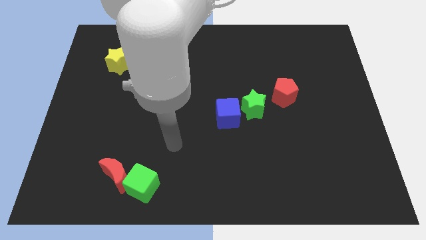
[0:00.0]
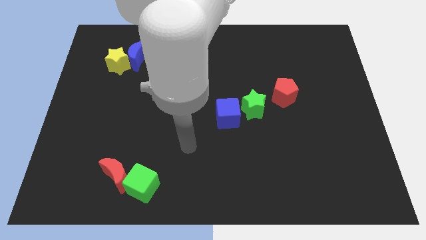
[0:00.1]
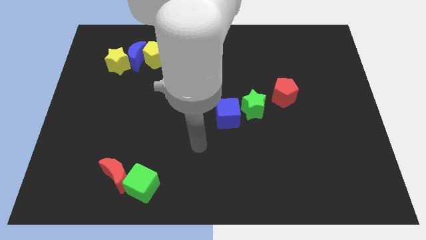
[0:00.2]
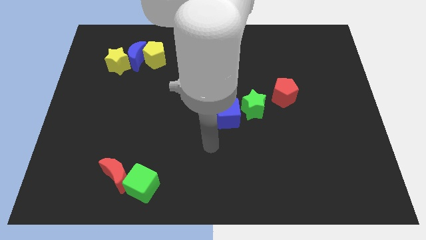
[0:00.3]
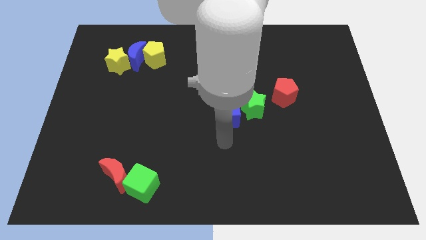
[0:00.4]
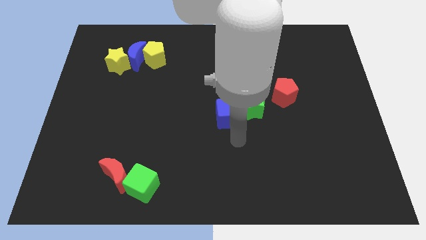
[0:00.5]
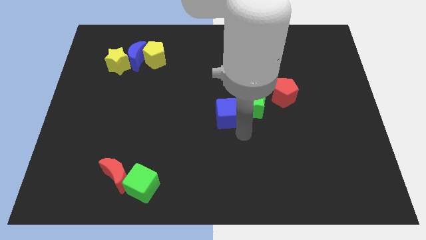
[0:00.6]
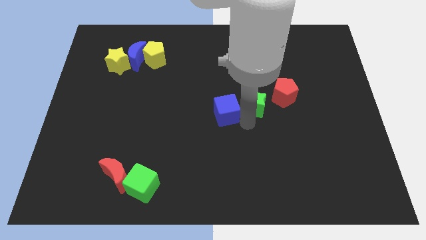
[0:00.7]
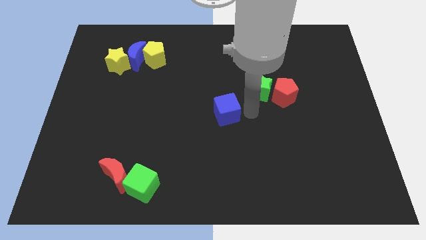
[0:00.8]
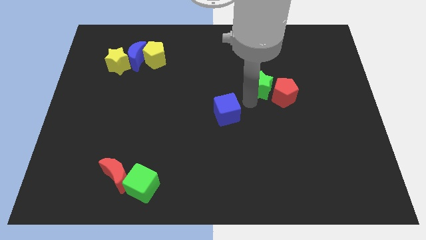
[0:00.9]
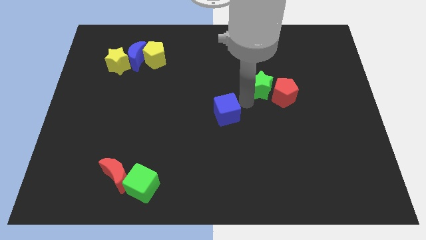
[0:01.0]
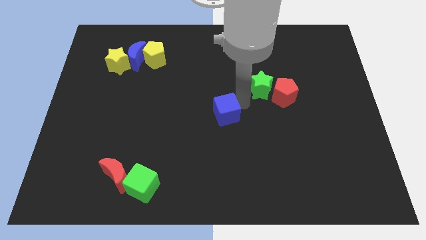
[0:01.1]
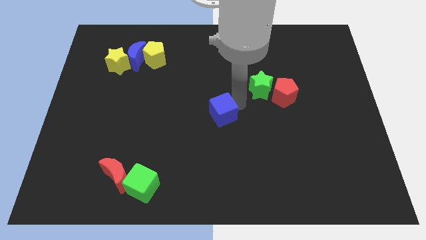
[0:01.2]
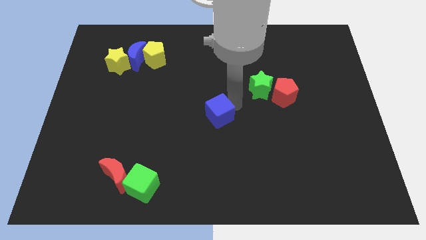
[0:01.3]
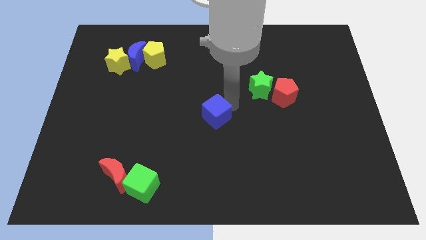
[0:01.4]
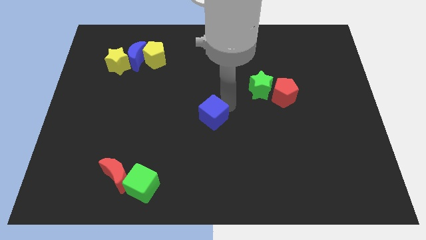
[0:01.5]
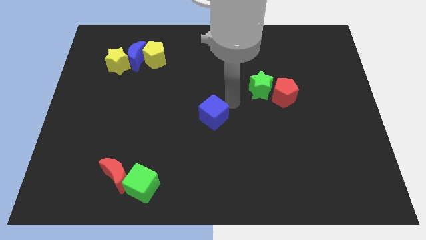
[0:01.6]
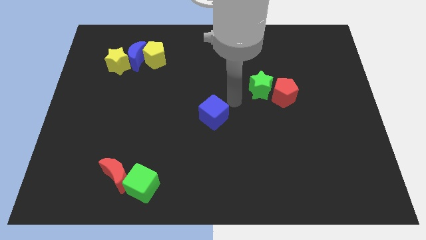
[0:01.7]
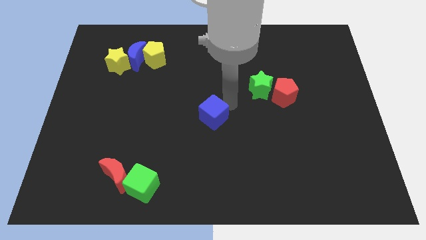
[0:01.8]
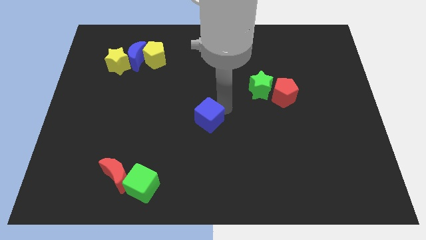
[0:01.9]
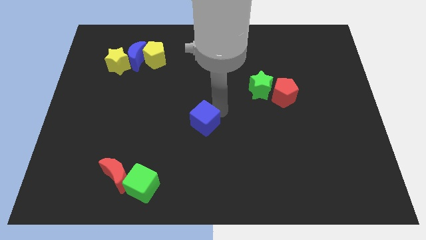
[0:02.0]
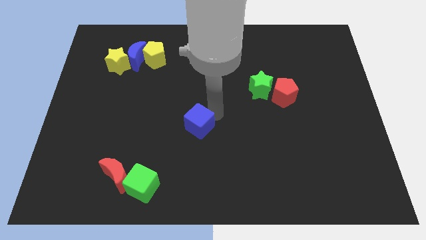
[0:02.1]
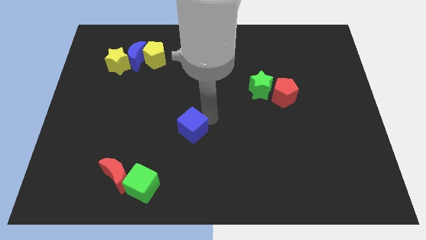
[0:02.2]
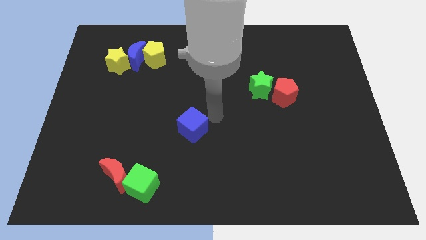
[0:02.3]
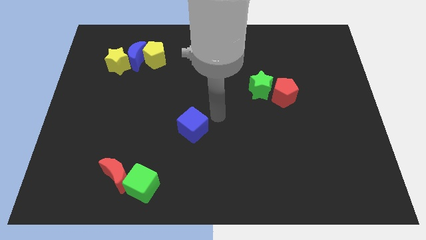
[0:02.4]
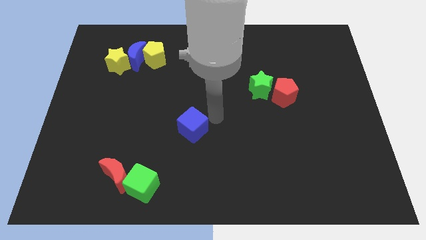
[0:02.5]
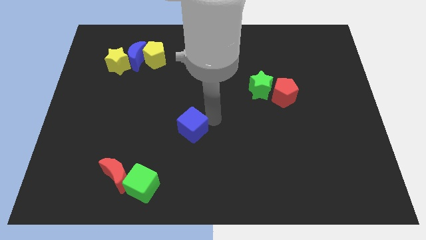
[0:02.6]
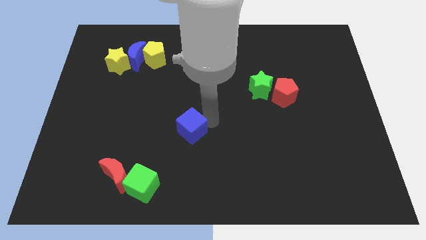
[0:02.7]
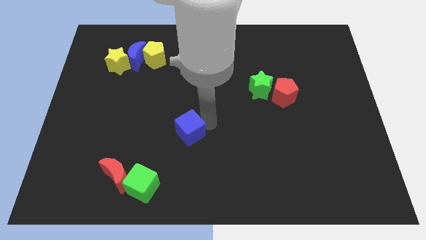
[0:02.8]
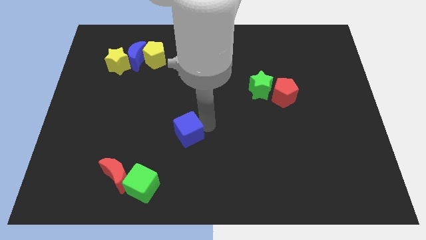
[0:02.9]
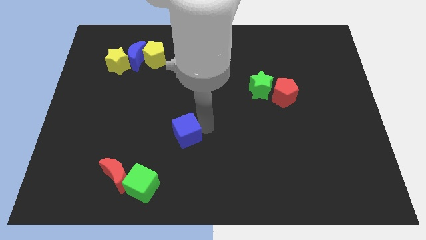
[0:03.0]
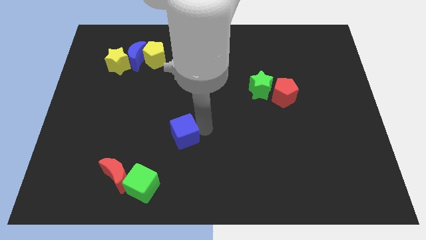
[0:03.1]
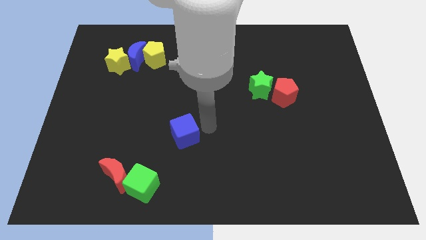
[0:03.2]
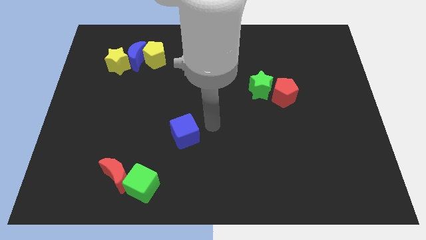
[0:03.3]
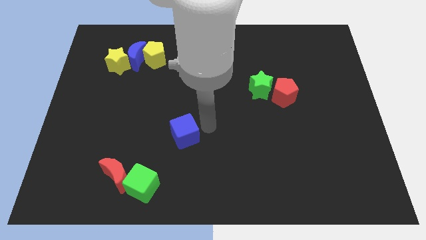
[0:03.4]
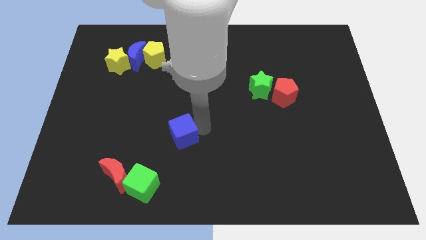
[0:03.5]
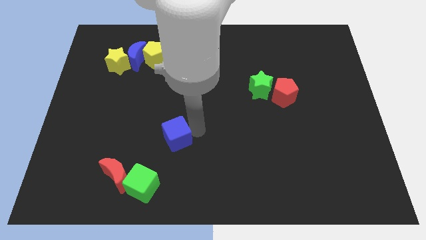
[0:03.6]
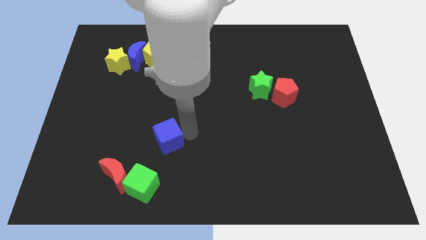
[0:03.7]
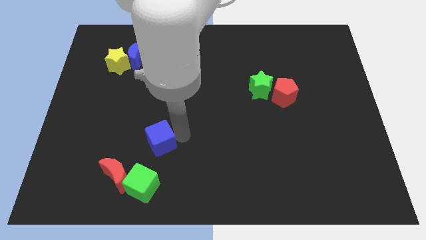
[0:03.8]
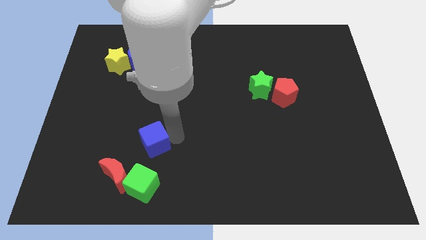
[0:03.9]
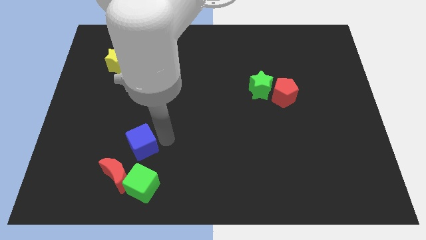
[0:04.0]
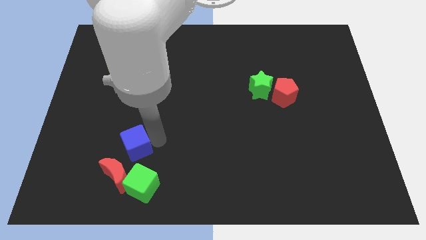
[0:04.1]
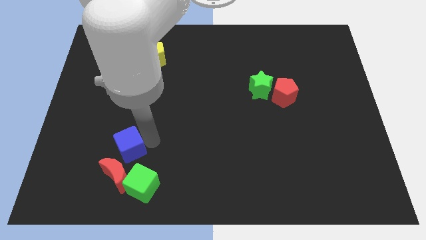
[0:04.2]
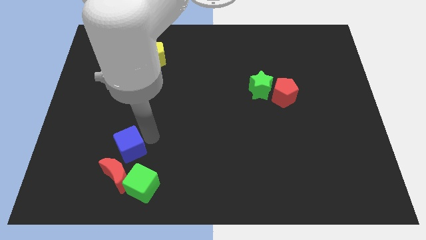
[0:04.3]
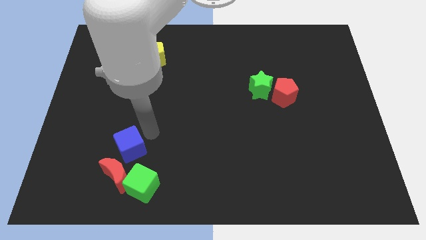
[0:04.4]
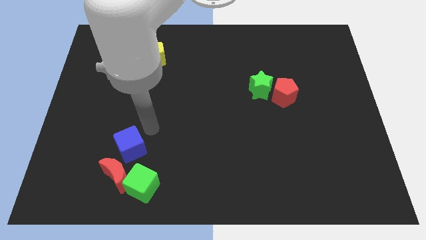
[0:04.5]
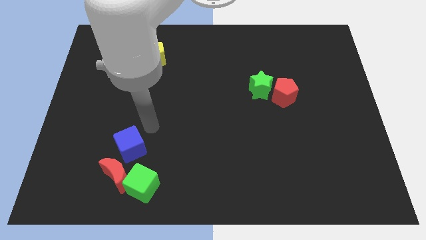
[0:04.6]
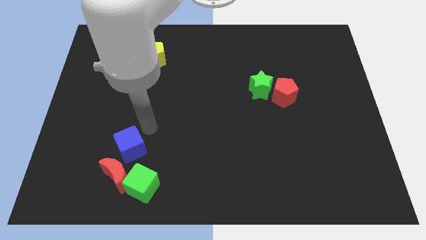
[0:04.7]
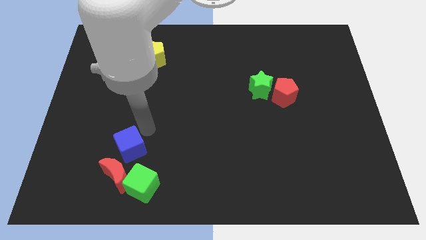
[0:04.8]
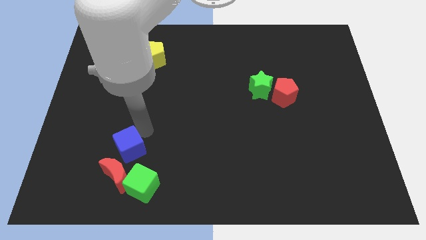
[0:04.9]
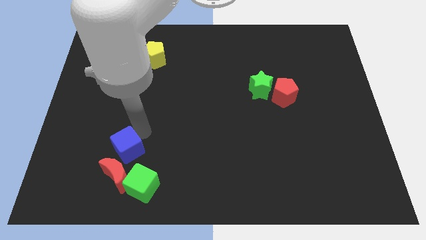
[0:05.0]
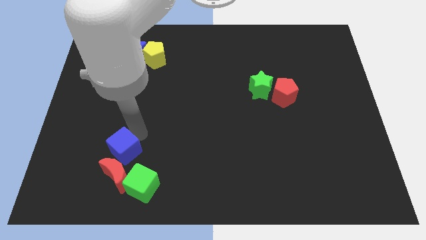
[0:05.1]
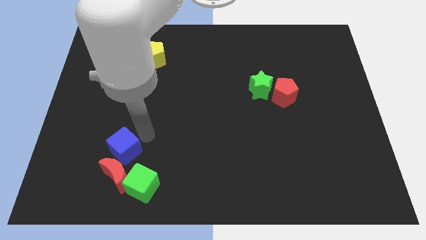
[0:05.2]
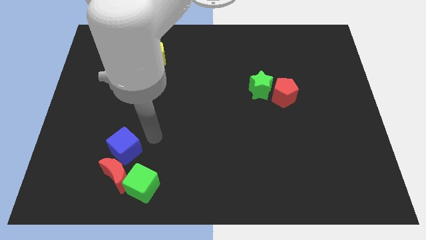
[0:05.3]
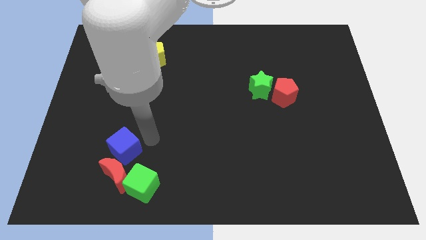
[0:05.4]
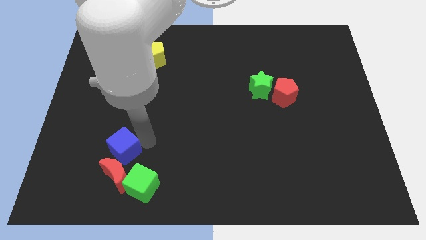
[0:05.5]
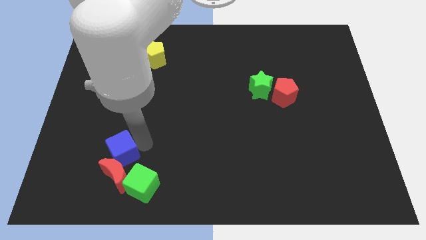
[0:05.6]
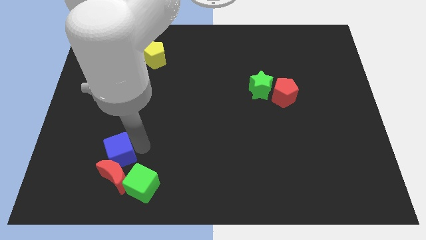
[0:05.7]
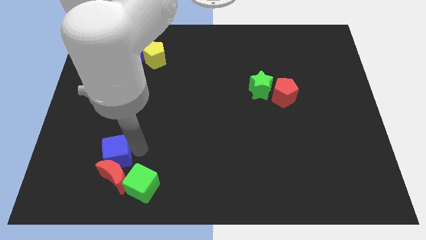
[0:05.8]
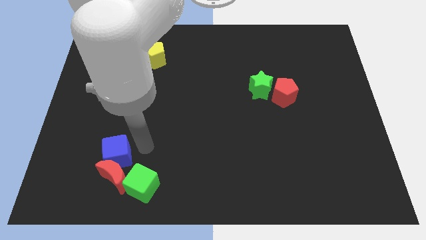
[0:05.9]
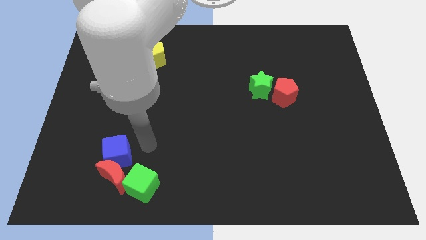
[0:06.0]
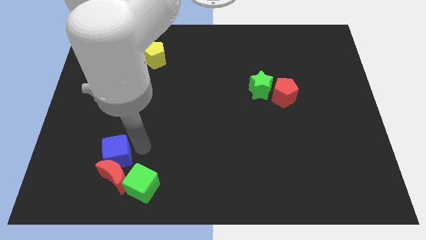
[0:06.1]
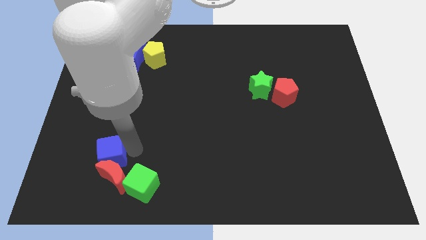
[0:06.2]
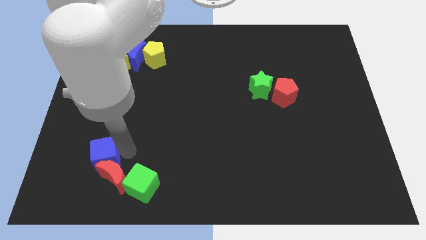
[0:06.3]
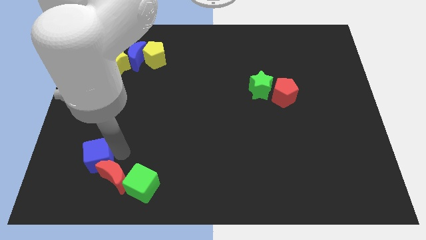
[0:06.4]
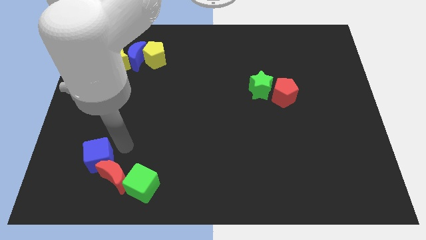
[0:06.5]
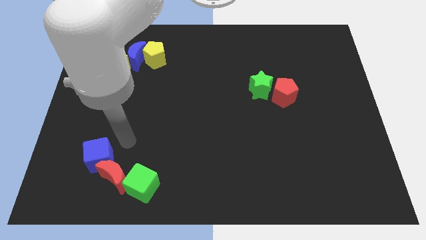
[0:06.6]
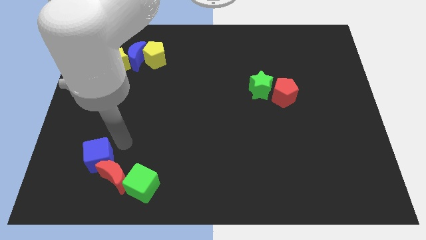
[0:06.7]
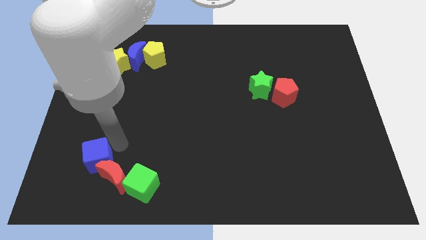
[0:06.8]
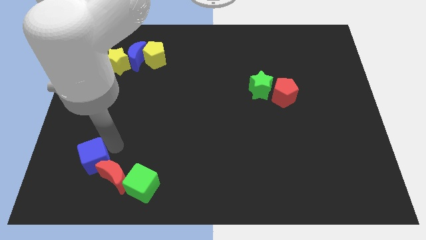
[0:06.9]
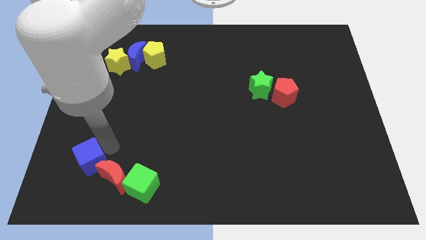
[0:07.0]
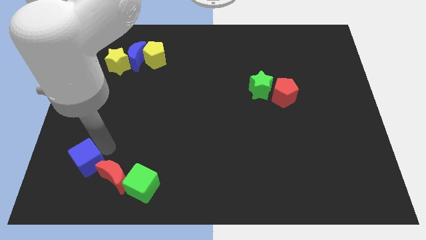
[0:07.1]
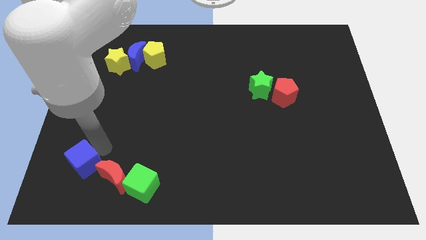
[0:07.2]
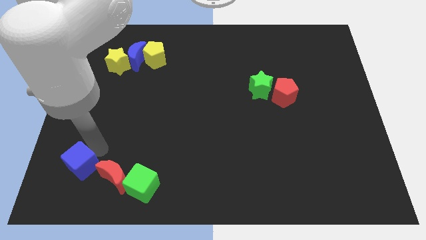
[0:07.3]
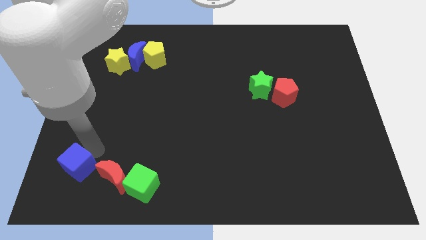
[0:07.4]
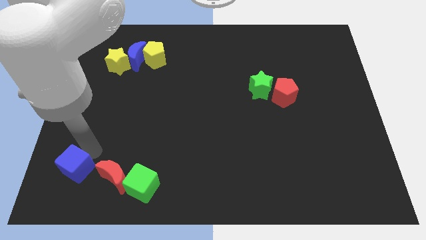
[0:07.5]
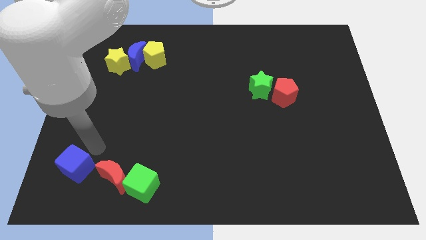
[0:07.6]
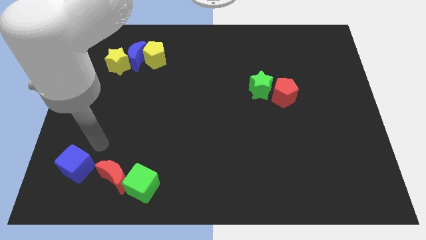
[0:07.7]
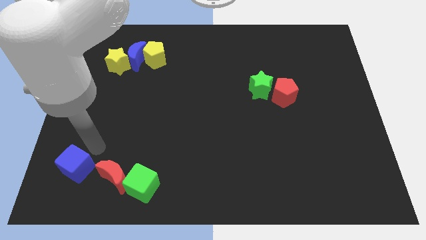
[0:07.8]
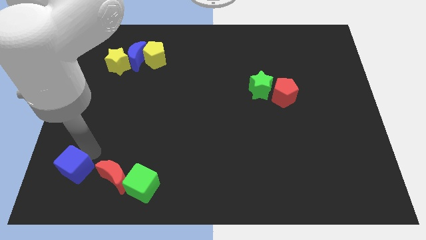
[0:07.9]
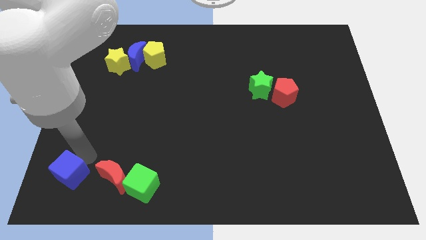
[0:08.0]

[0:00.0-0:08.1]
slide the blue cube to the bottom left
